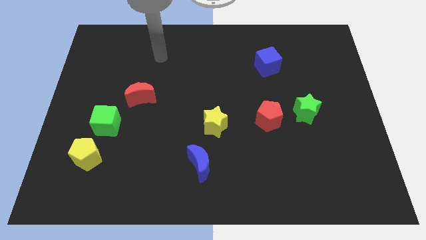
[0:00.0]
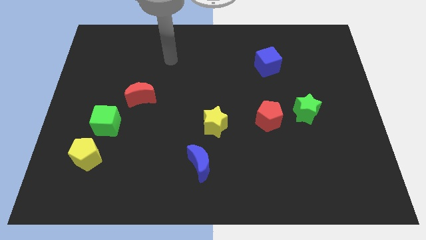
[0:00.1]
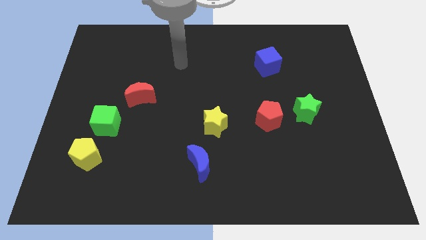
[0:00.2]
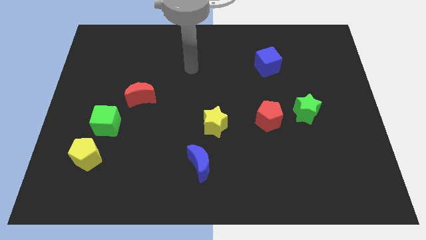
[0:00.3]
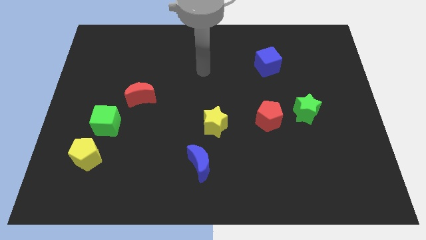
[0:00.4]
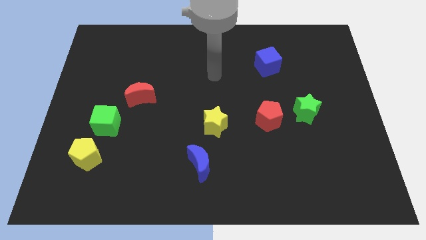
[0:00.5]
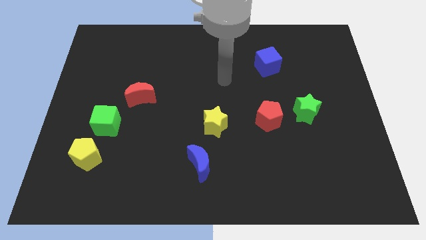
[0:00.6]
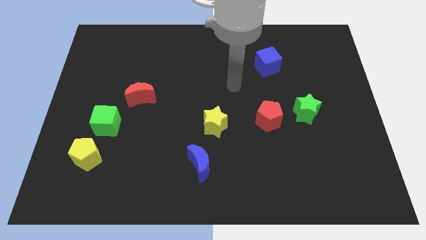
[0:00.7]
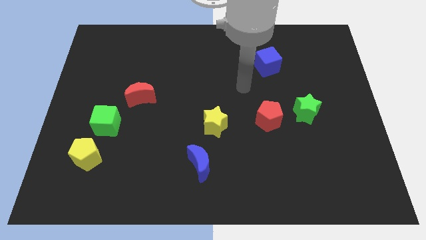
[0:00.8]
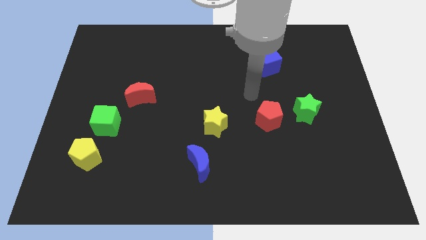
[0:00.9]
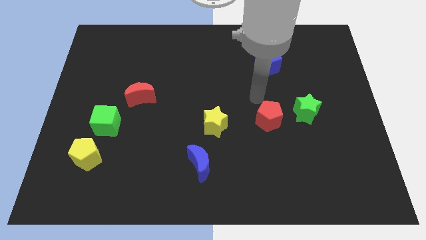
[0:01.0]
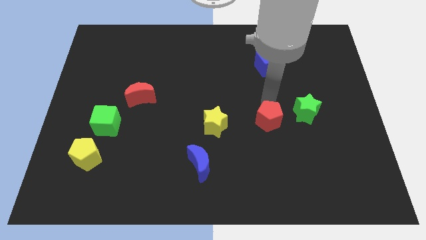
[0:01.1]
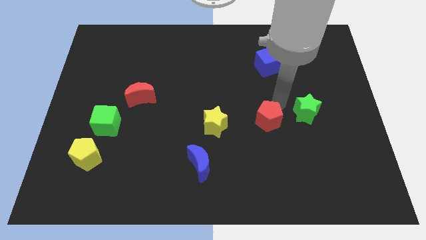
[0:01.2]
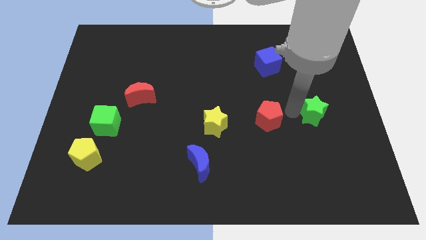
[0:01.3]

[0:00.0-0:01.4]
separate the red pentagon from the green star

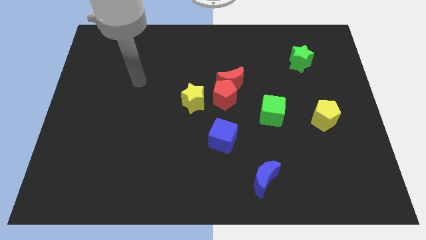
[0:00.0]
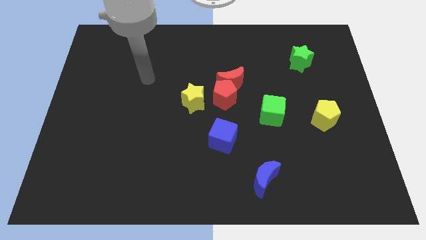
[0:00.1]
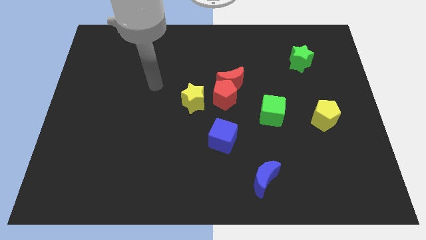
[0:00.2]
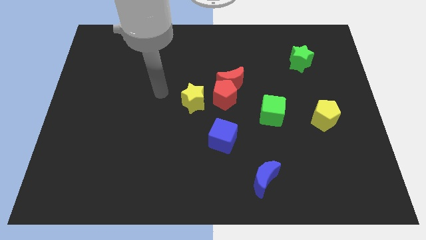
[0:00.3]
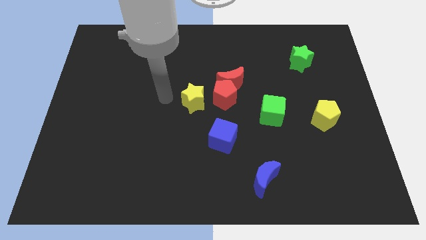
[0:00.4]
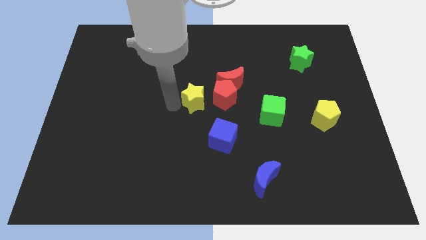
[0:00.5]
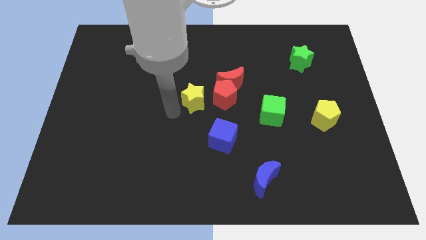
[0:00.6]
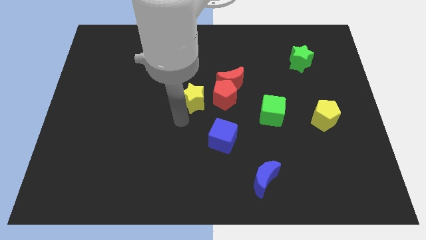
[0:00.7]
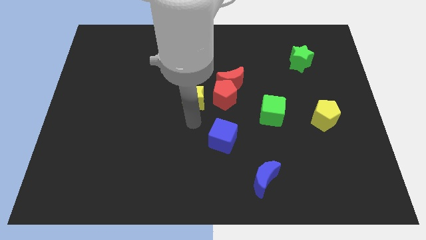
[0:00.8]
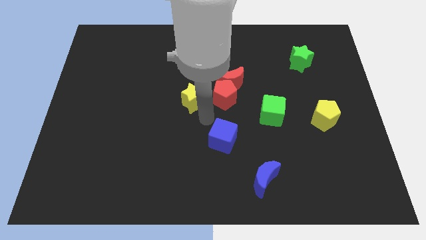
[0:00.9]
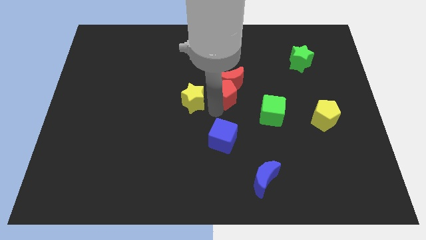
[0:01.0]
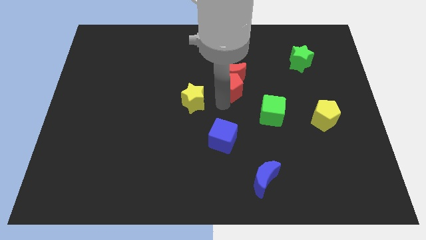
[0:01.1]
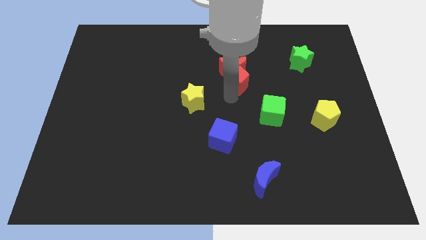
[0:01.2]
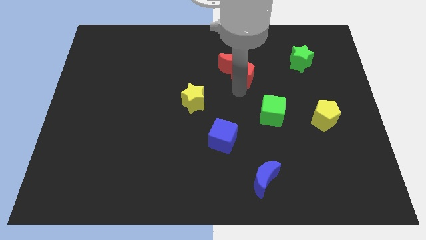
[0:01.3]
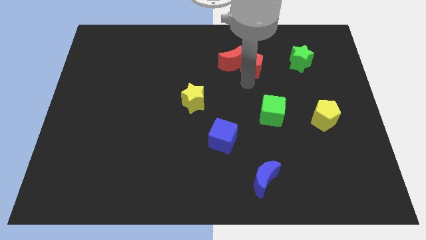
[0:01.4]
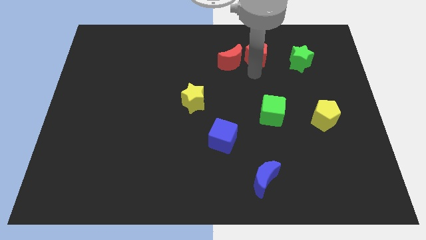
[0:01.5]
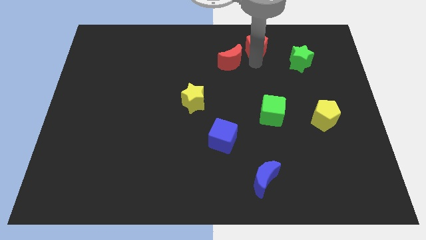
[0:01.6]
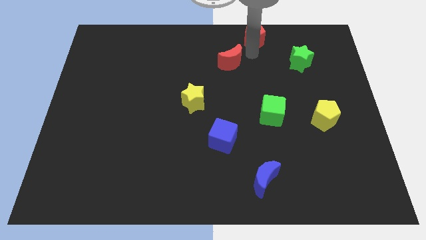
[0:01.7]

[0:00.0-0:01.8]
pull the red moon apart from the red pentagon

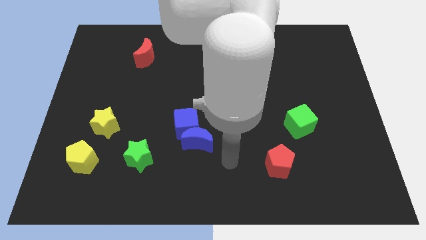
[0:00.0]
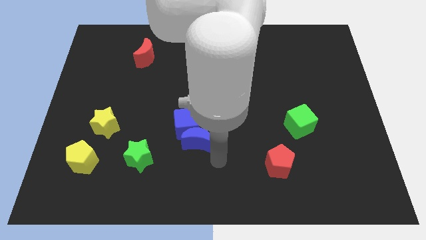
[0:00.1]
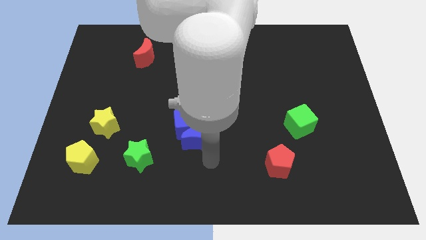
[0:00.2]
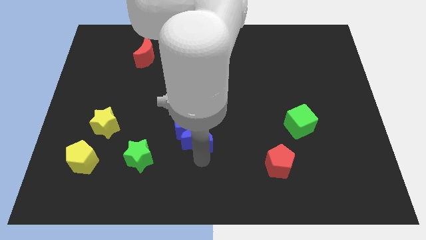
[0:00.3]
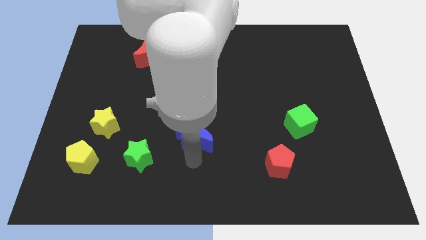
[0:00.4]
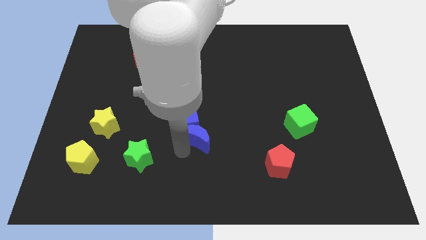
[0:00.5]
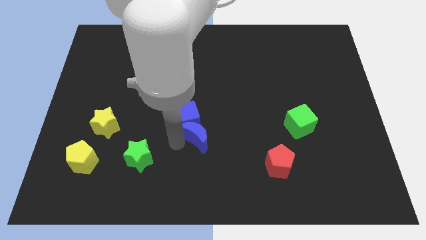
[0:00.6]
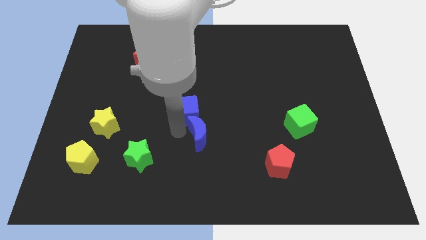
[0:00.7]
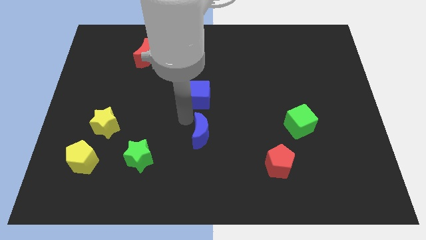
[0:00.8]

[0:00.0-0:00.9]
separate the blue moon from the blue cube

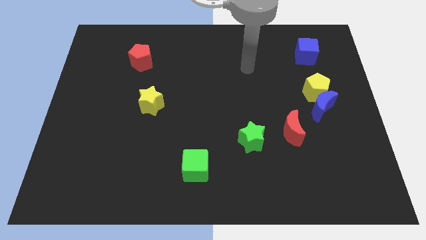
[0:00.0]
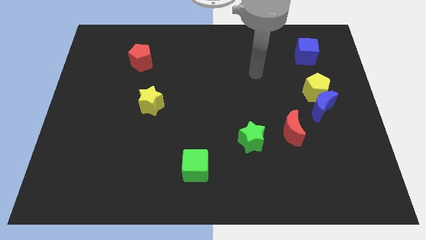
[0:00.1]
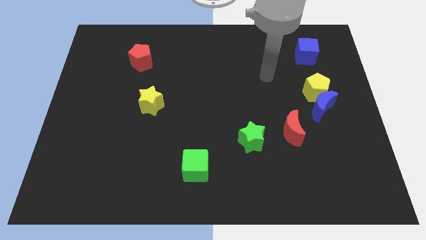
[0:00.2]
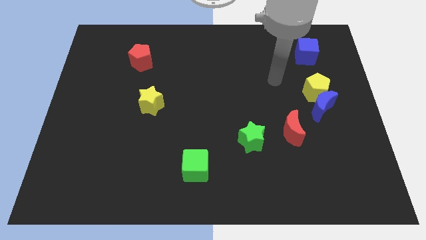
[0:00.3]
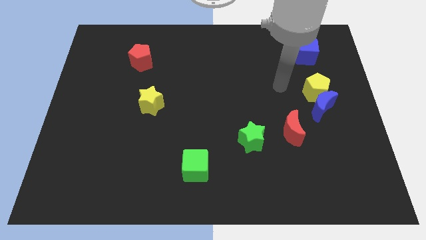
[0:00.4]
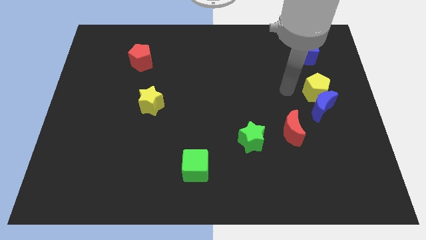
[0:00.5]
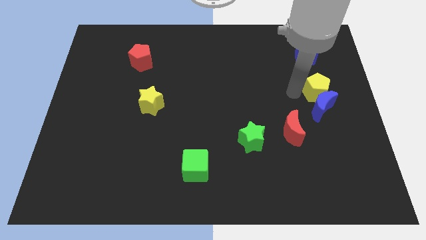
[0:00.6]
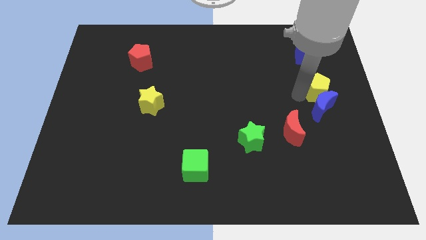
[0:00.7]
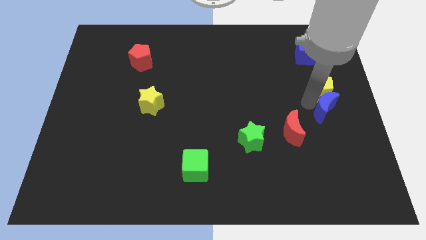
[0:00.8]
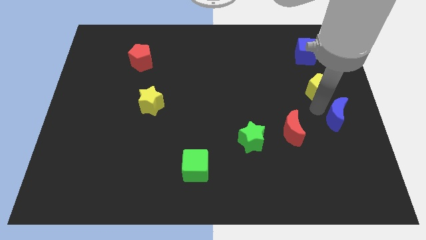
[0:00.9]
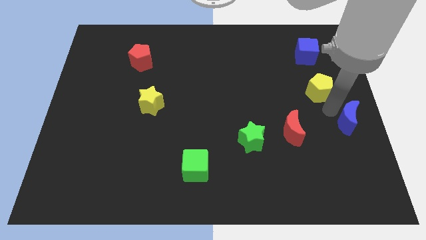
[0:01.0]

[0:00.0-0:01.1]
move the yellow pentagon away from the blue moon

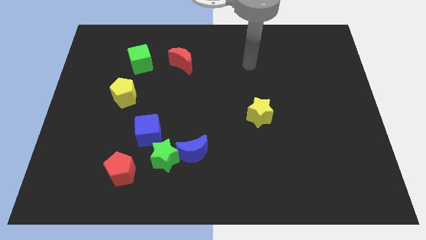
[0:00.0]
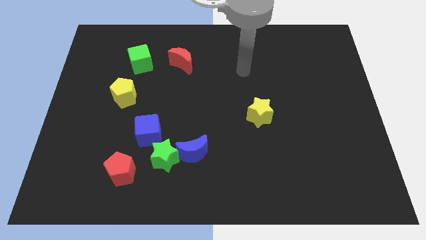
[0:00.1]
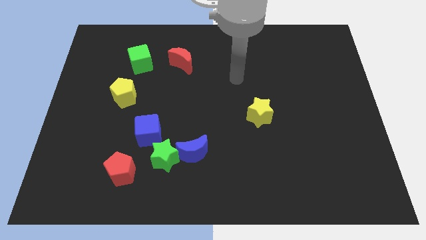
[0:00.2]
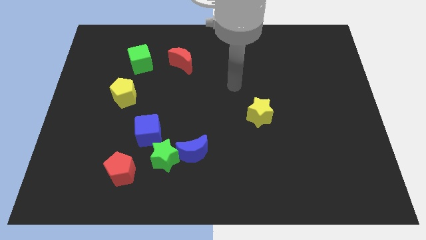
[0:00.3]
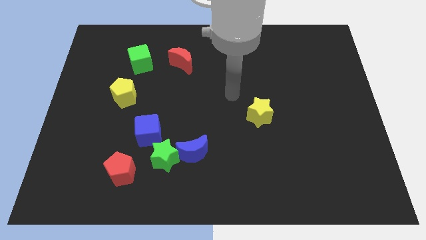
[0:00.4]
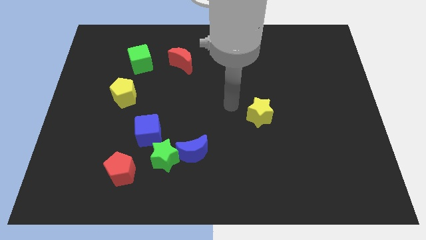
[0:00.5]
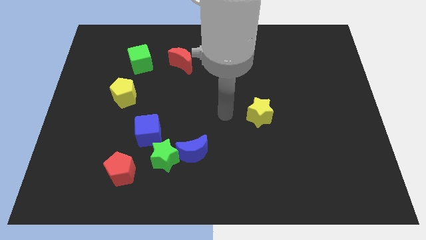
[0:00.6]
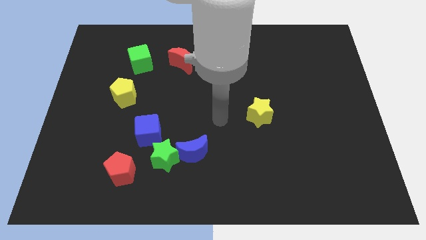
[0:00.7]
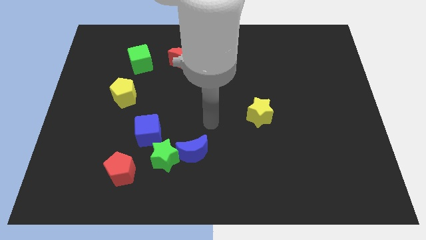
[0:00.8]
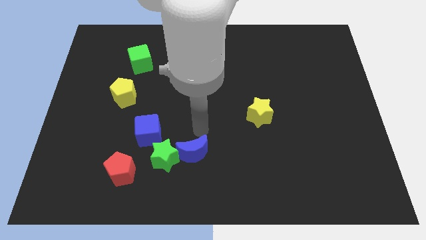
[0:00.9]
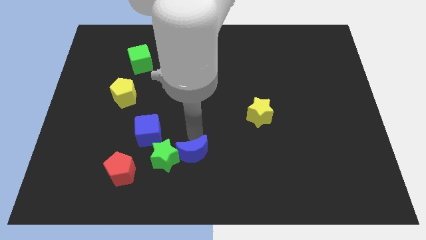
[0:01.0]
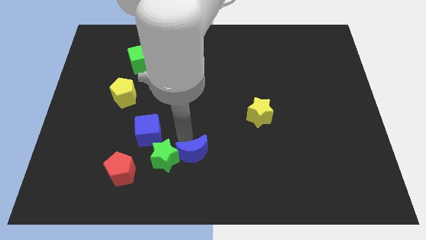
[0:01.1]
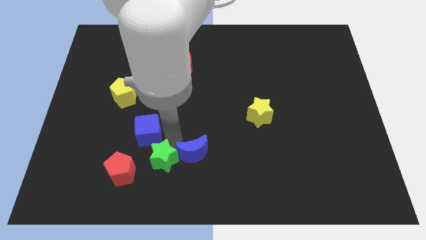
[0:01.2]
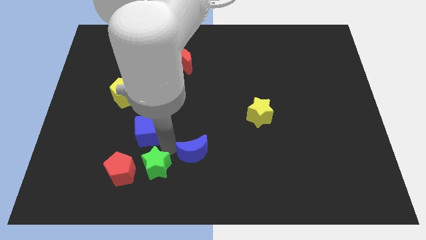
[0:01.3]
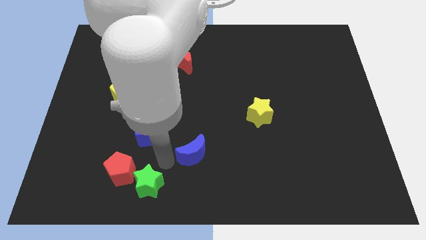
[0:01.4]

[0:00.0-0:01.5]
separate the blue moon from the green star

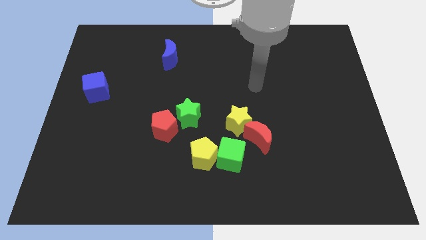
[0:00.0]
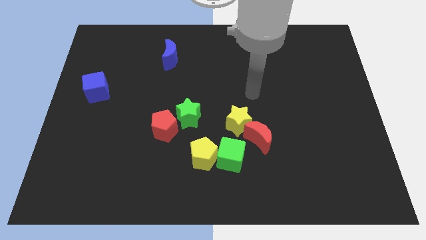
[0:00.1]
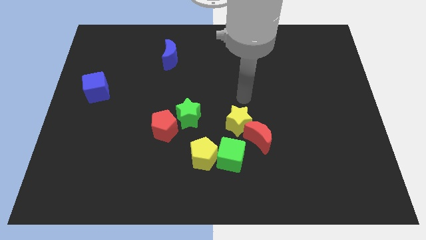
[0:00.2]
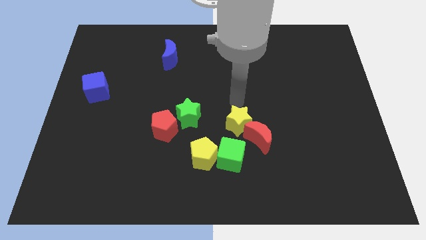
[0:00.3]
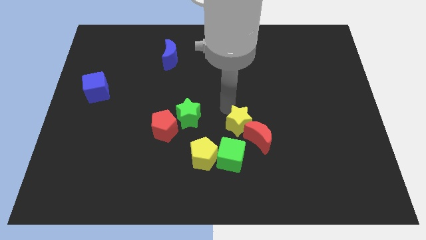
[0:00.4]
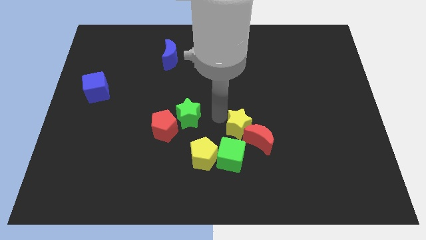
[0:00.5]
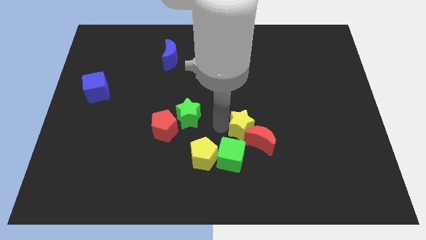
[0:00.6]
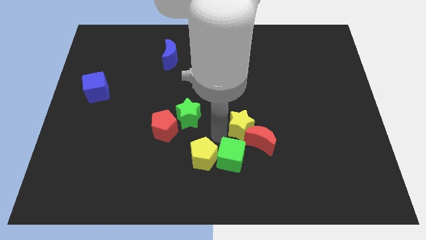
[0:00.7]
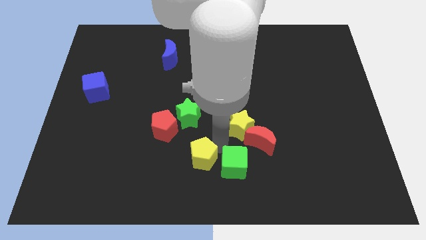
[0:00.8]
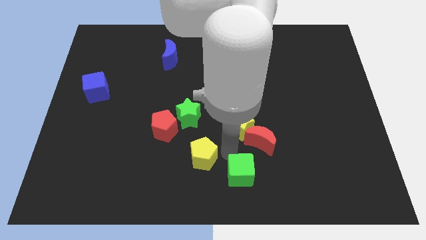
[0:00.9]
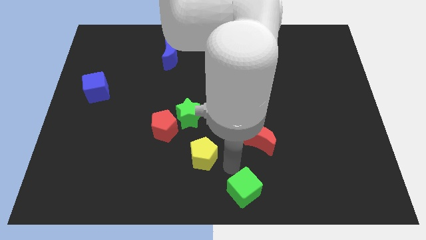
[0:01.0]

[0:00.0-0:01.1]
separate the yellow pentagon from the green cube

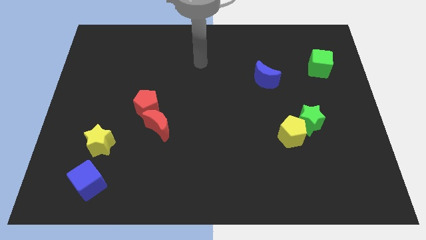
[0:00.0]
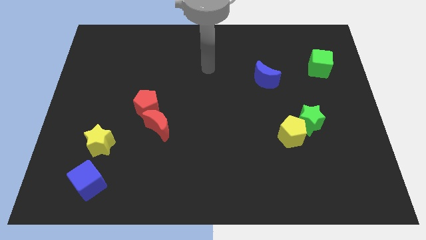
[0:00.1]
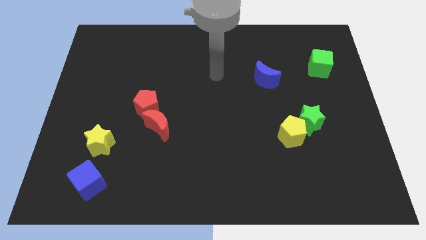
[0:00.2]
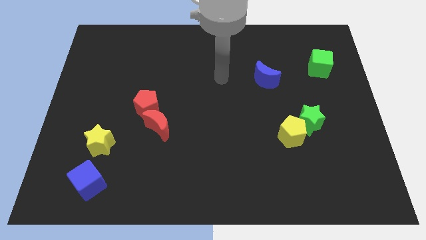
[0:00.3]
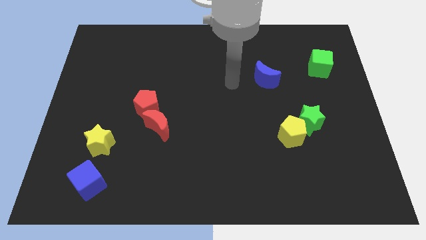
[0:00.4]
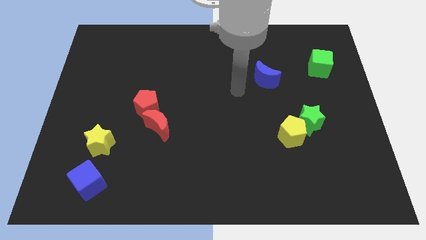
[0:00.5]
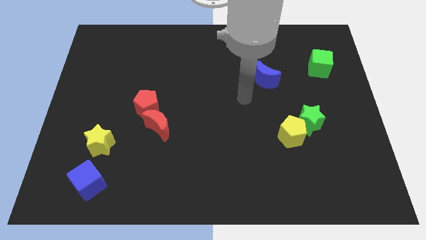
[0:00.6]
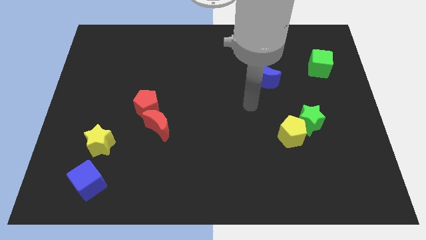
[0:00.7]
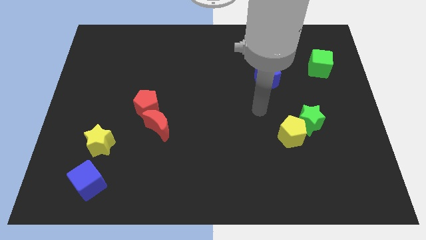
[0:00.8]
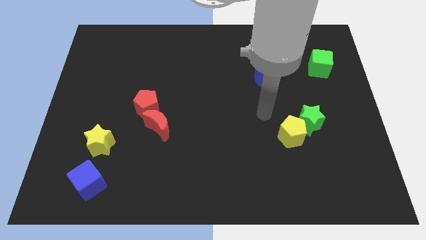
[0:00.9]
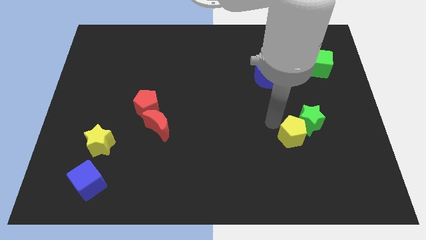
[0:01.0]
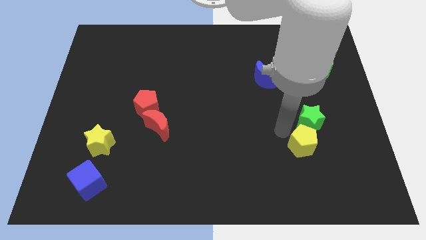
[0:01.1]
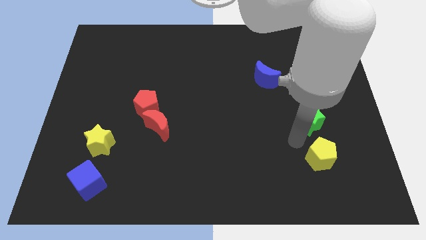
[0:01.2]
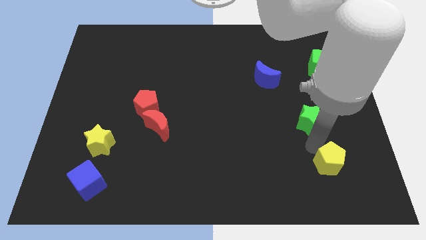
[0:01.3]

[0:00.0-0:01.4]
move the green star away from the yellow pentagon
